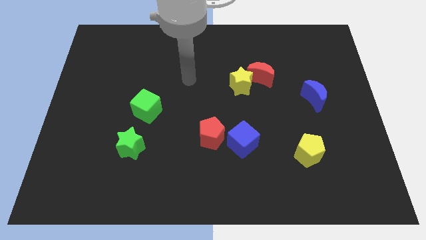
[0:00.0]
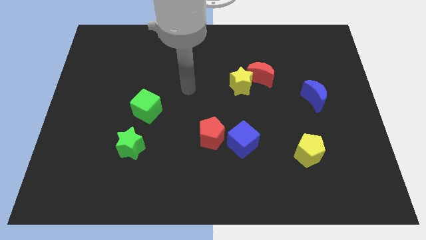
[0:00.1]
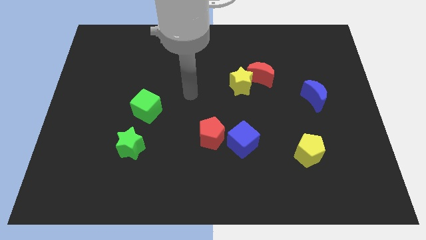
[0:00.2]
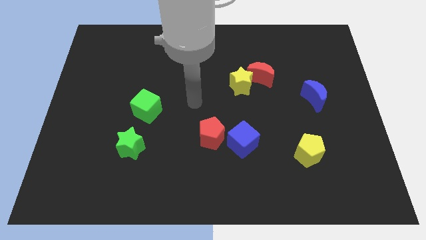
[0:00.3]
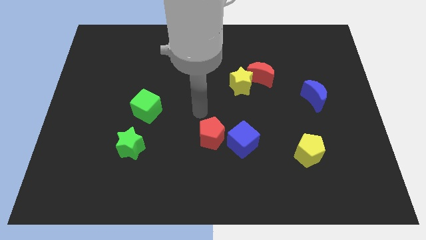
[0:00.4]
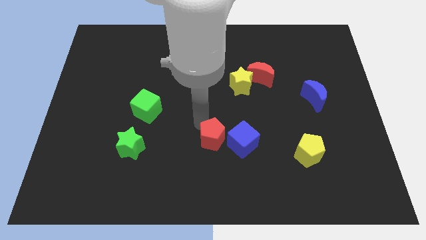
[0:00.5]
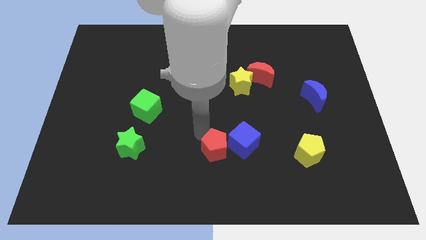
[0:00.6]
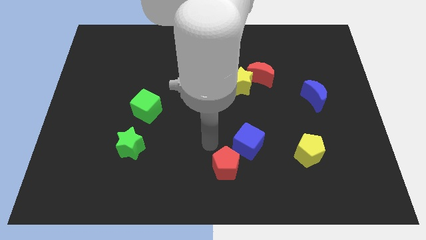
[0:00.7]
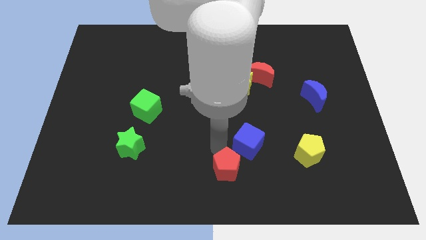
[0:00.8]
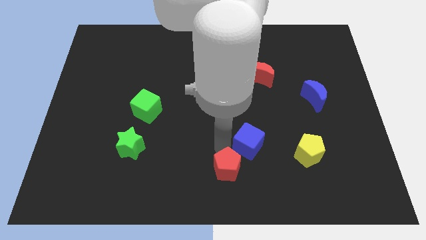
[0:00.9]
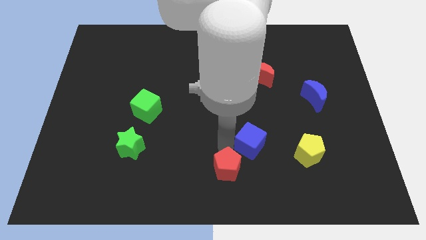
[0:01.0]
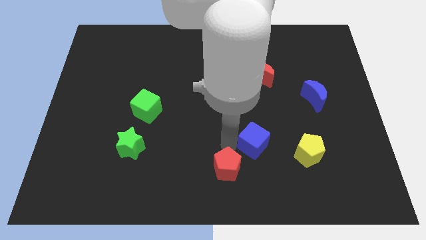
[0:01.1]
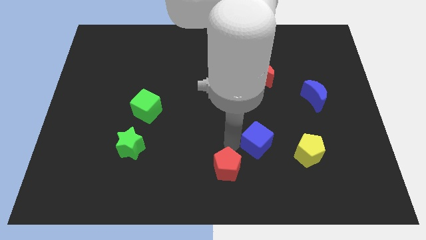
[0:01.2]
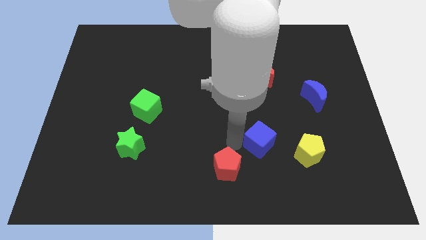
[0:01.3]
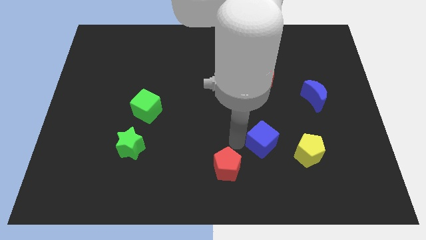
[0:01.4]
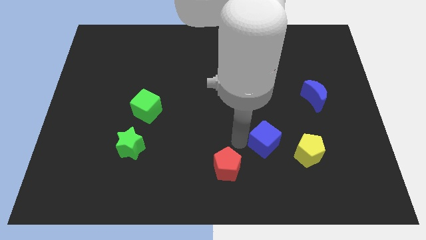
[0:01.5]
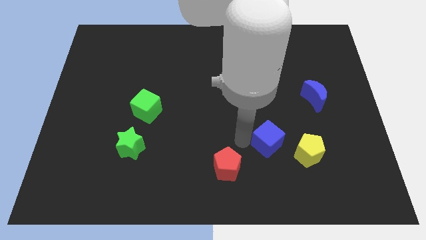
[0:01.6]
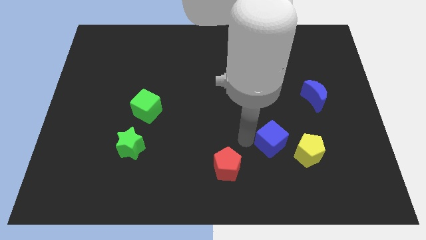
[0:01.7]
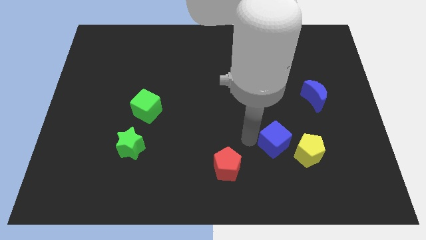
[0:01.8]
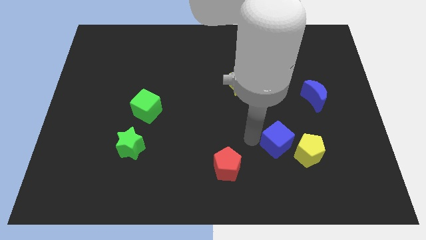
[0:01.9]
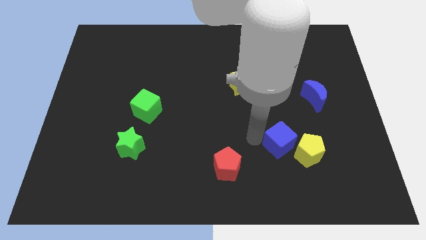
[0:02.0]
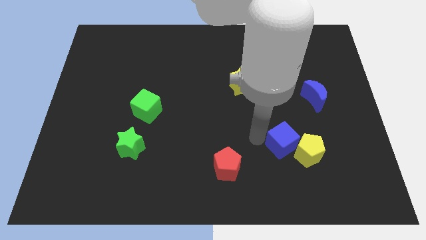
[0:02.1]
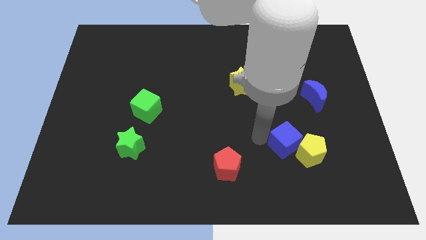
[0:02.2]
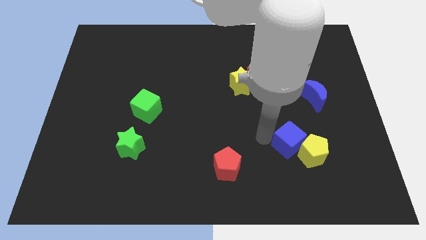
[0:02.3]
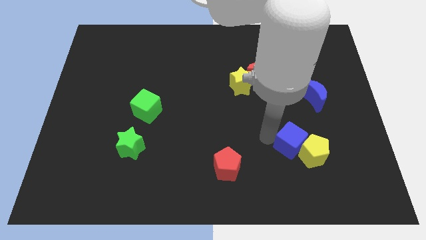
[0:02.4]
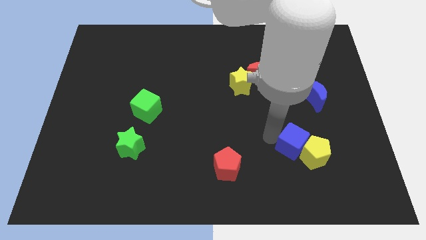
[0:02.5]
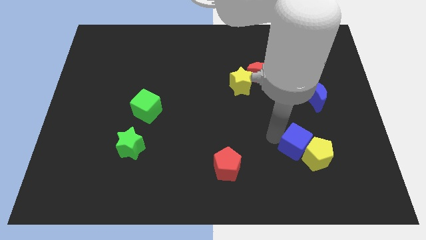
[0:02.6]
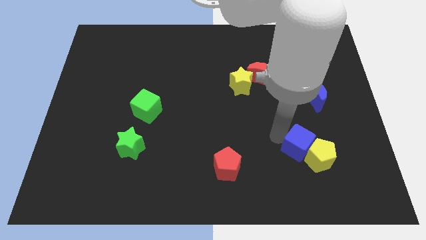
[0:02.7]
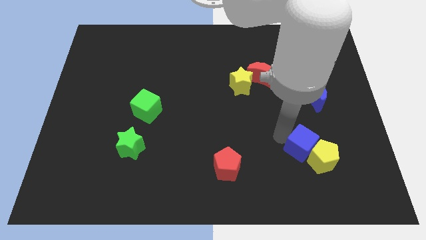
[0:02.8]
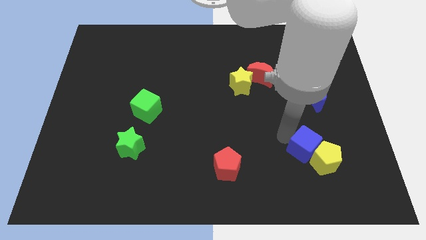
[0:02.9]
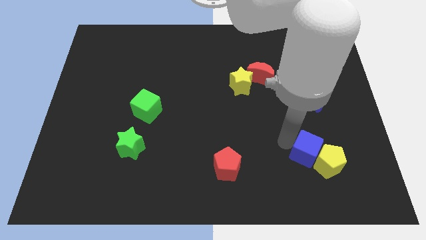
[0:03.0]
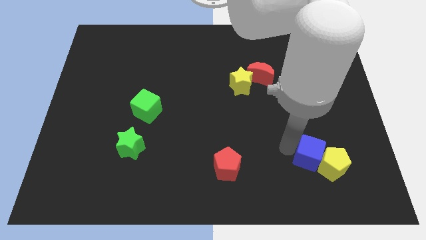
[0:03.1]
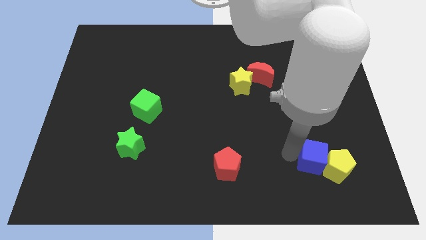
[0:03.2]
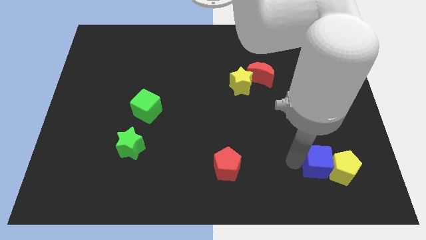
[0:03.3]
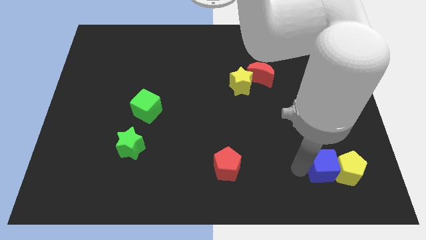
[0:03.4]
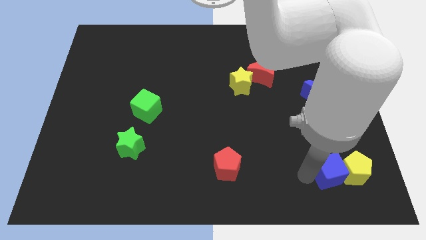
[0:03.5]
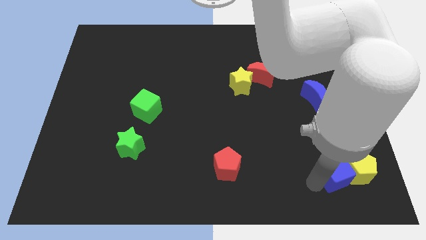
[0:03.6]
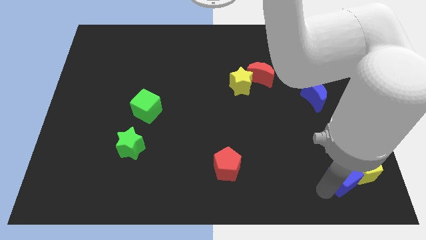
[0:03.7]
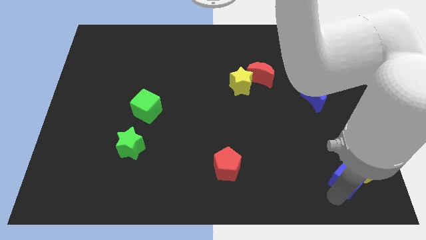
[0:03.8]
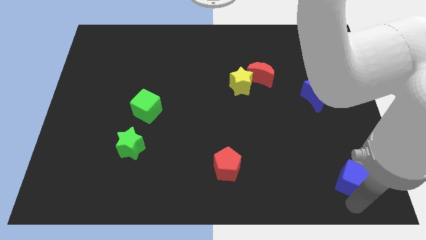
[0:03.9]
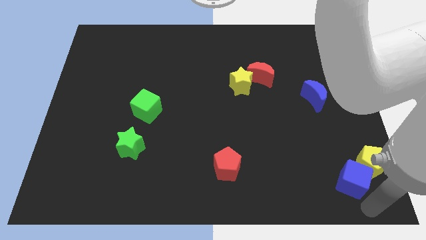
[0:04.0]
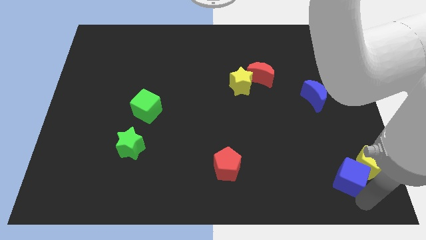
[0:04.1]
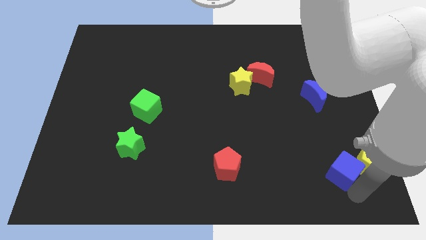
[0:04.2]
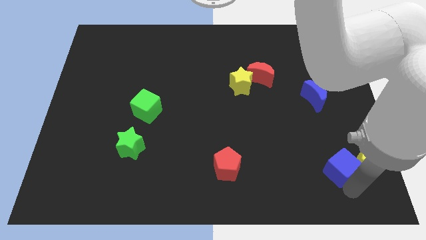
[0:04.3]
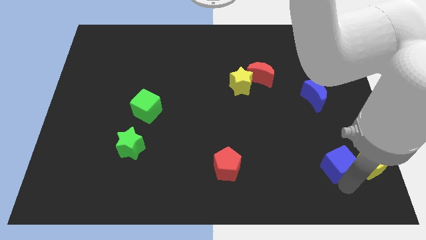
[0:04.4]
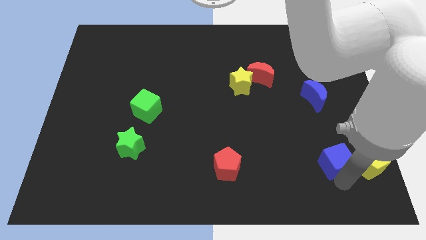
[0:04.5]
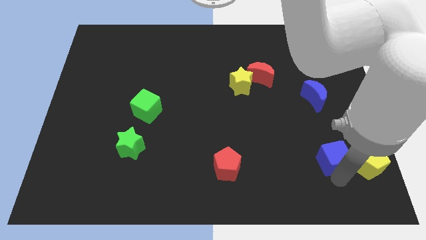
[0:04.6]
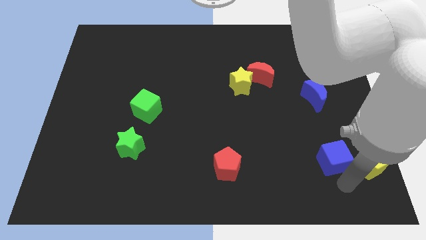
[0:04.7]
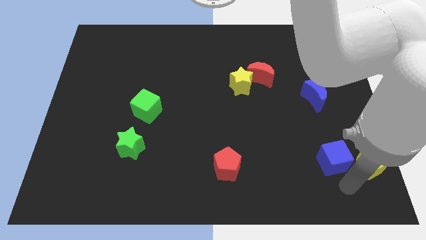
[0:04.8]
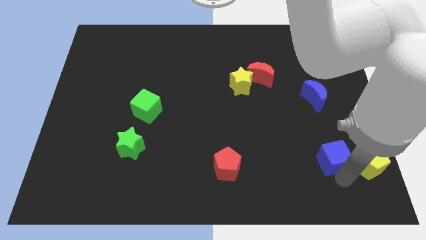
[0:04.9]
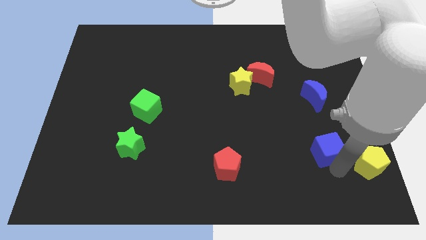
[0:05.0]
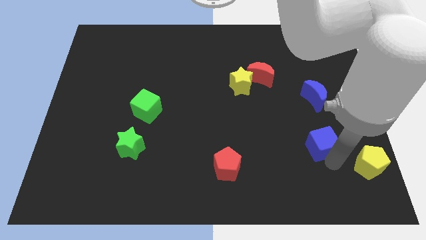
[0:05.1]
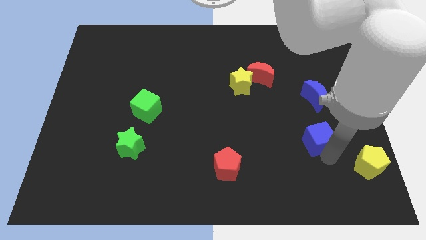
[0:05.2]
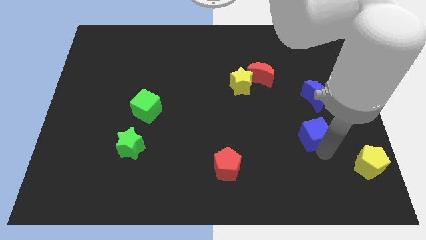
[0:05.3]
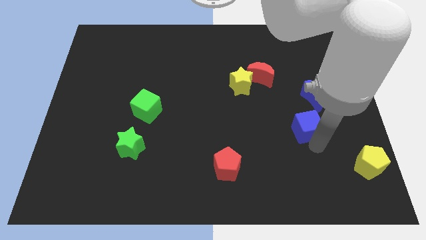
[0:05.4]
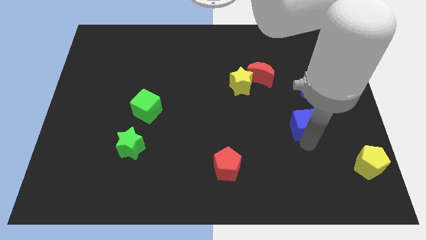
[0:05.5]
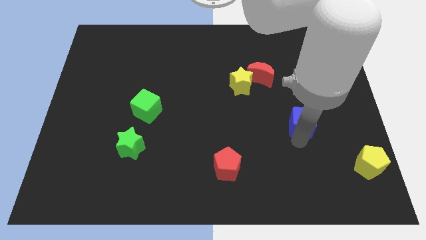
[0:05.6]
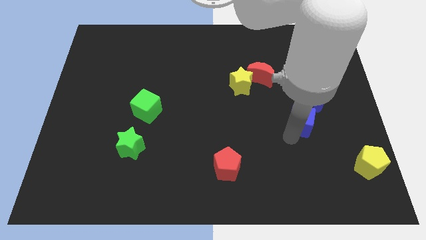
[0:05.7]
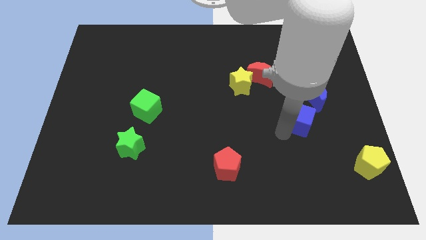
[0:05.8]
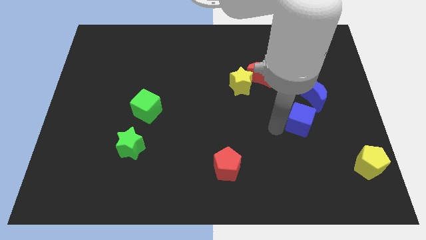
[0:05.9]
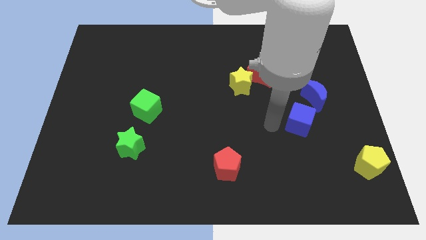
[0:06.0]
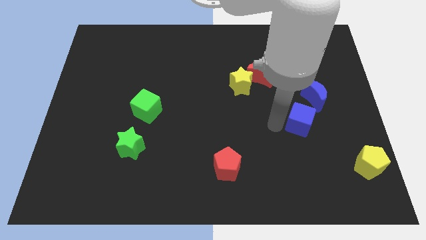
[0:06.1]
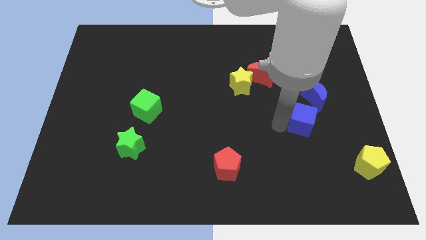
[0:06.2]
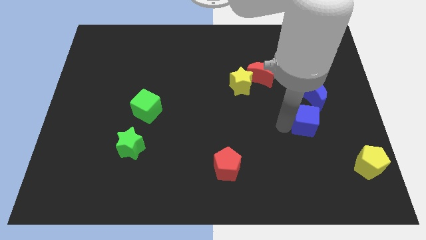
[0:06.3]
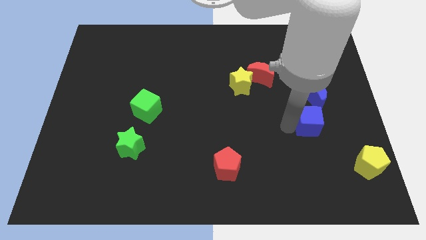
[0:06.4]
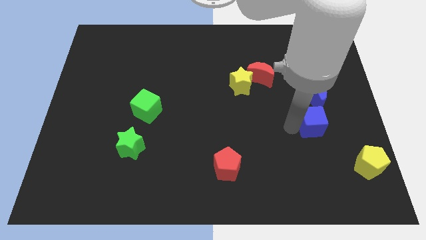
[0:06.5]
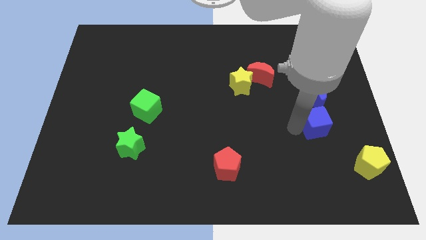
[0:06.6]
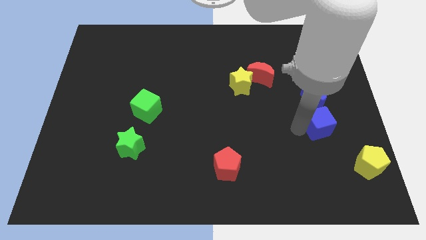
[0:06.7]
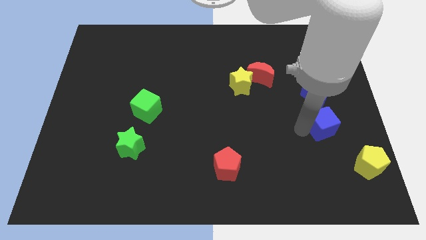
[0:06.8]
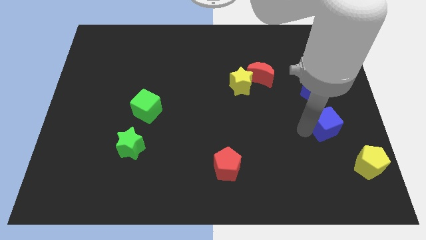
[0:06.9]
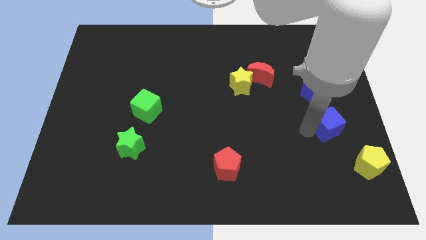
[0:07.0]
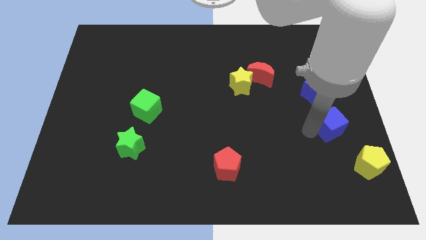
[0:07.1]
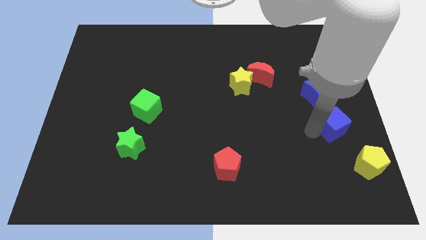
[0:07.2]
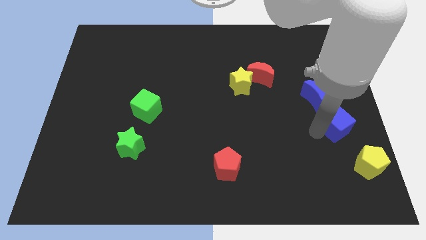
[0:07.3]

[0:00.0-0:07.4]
put the blue cube to the right side of the board
